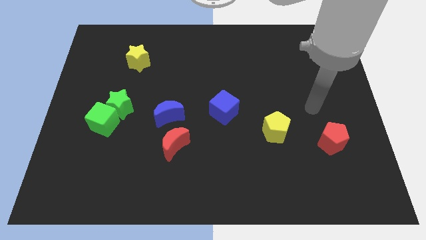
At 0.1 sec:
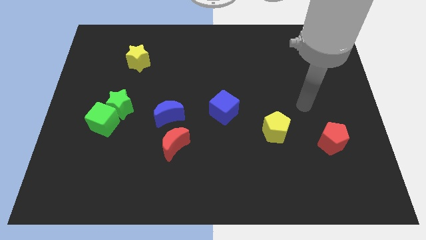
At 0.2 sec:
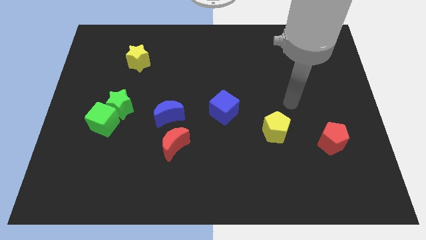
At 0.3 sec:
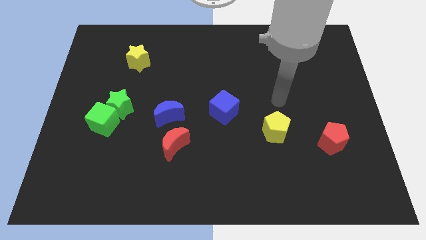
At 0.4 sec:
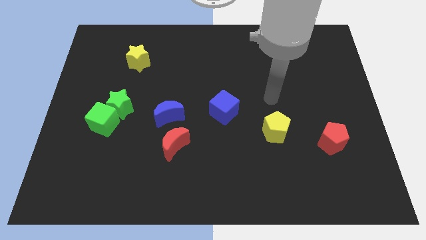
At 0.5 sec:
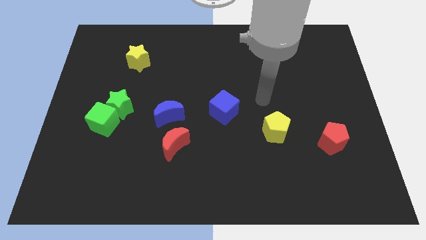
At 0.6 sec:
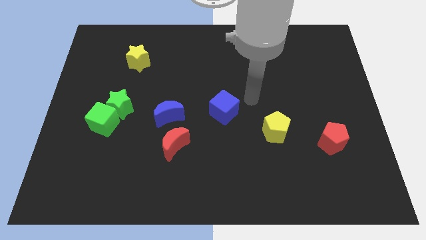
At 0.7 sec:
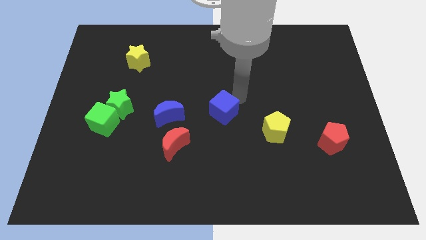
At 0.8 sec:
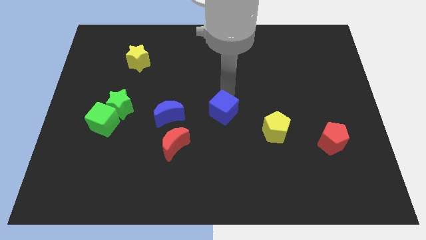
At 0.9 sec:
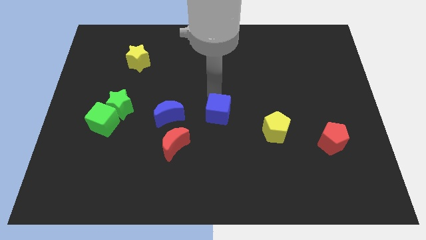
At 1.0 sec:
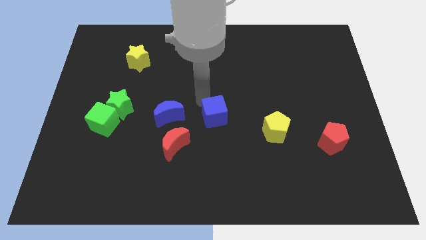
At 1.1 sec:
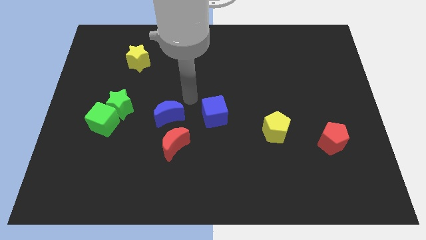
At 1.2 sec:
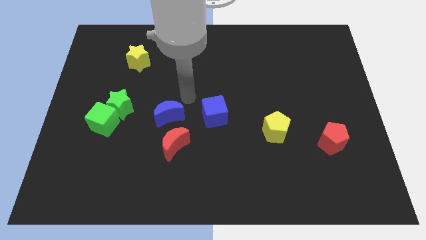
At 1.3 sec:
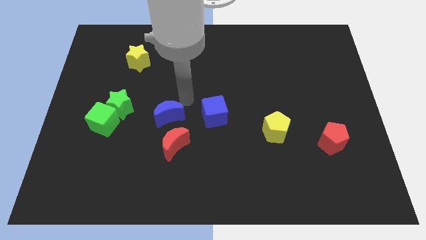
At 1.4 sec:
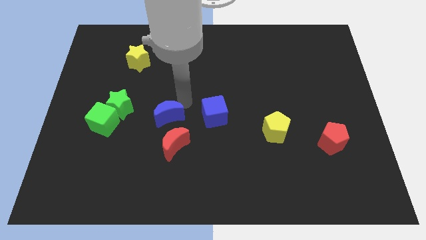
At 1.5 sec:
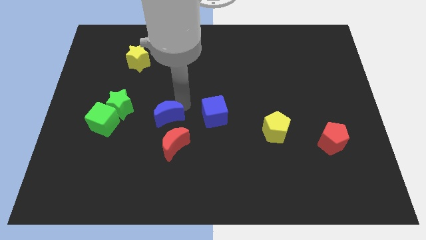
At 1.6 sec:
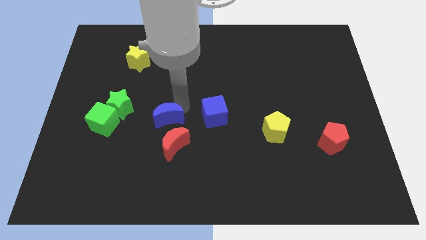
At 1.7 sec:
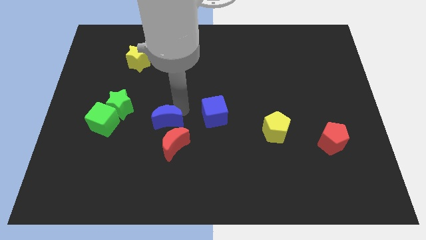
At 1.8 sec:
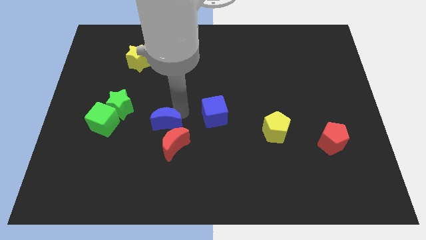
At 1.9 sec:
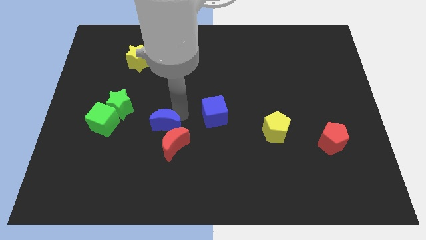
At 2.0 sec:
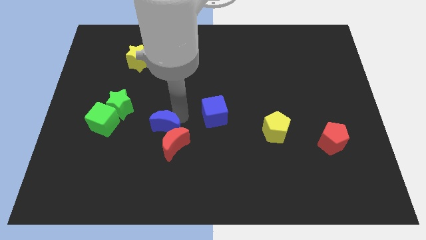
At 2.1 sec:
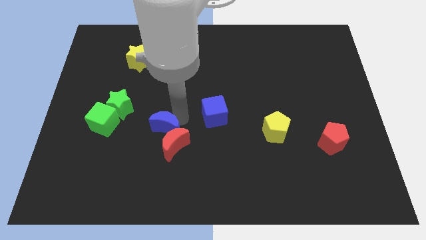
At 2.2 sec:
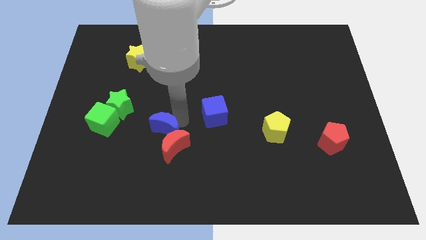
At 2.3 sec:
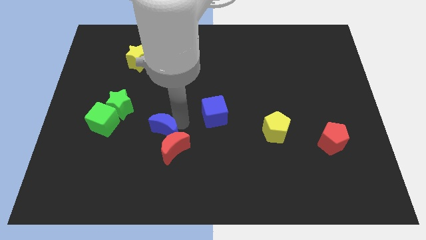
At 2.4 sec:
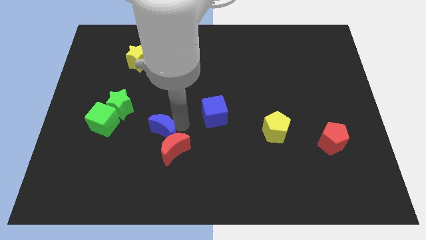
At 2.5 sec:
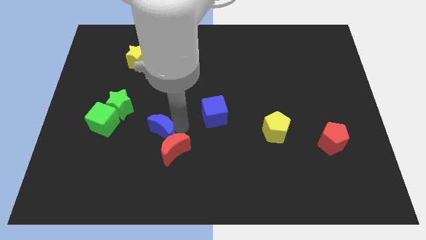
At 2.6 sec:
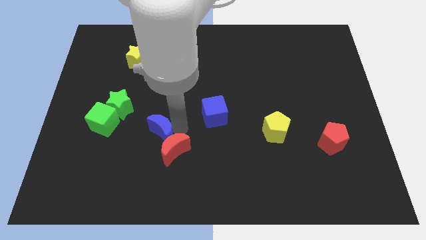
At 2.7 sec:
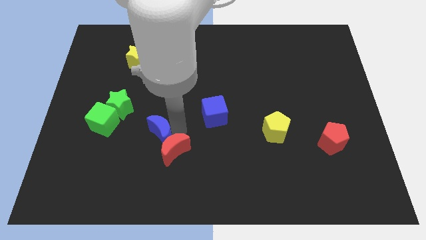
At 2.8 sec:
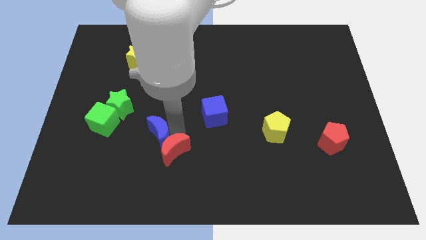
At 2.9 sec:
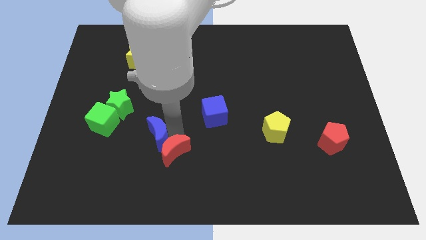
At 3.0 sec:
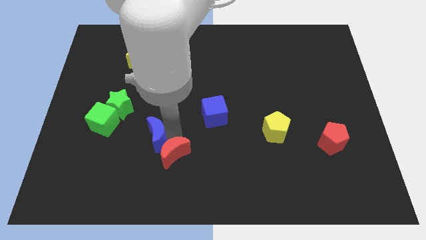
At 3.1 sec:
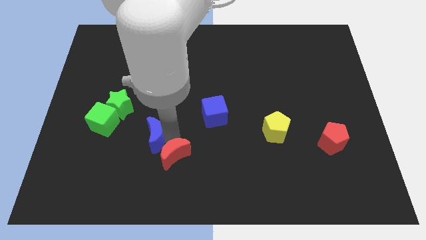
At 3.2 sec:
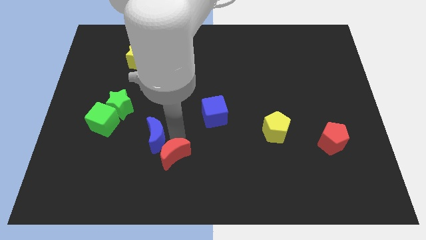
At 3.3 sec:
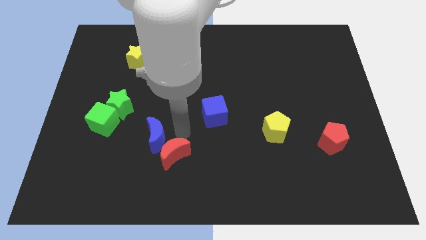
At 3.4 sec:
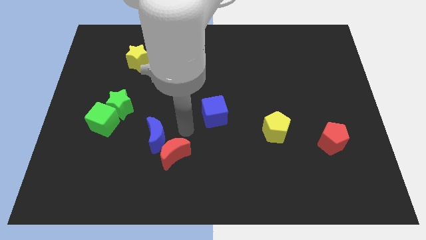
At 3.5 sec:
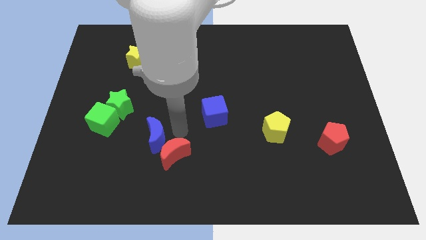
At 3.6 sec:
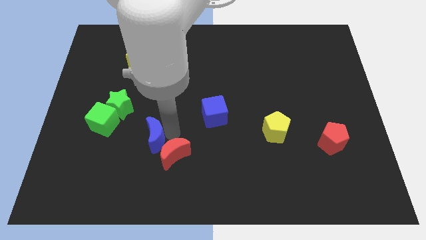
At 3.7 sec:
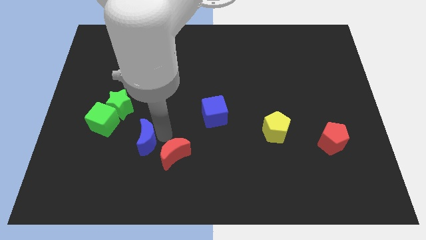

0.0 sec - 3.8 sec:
push the blue moon diagonally down and to the left a little

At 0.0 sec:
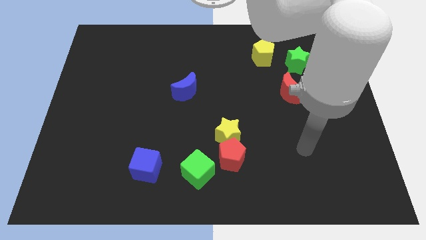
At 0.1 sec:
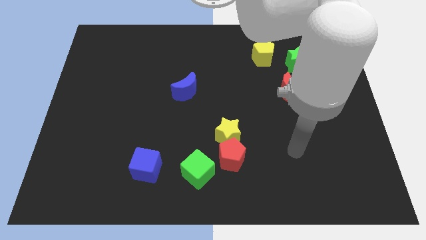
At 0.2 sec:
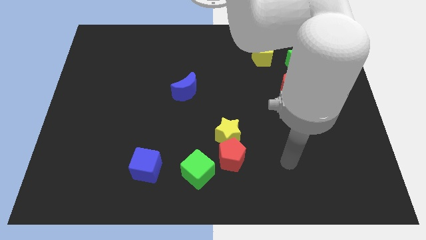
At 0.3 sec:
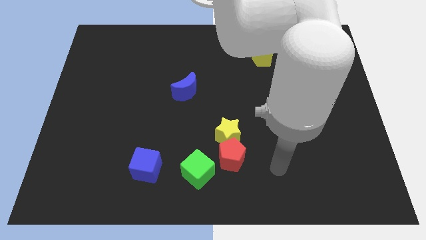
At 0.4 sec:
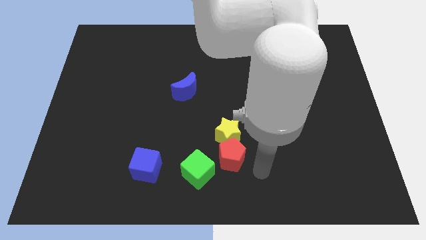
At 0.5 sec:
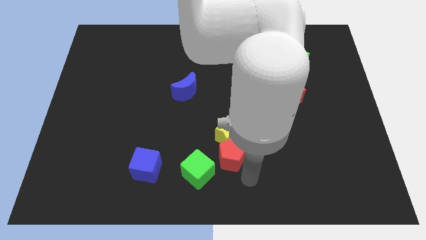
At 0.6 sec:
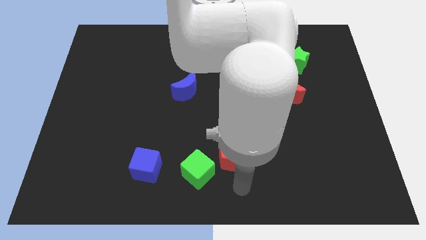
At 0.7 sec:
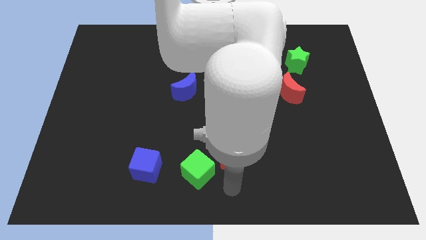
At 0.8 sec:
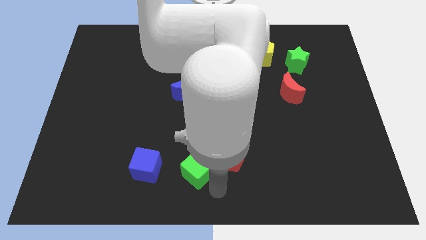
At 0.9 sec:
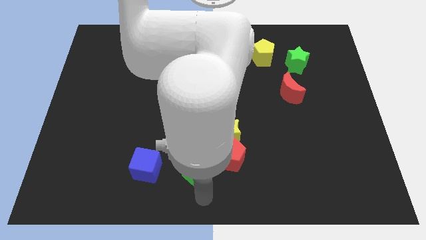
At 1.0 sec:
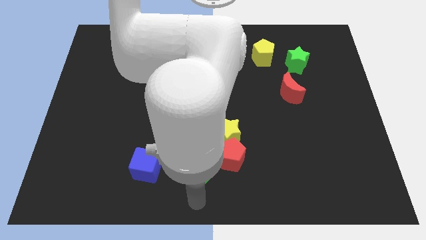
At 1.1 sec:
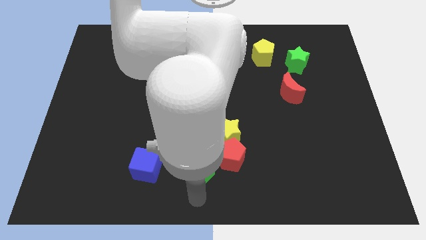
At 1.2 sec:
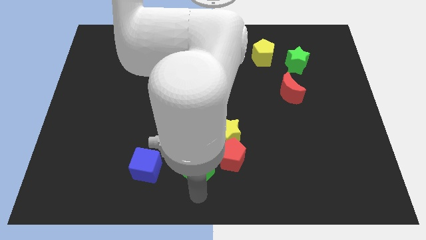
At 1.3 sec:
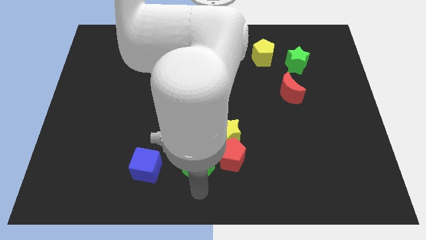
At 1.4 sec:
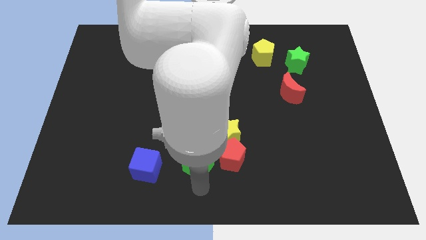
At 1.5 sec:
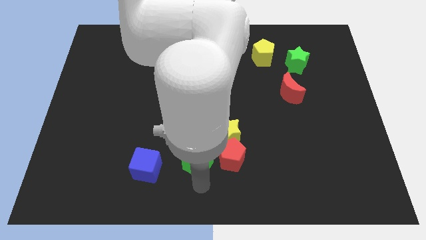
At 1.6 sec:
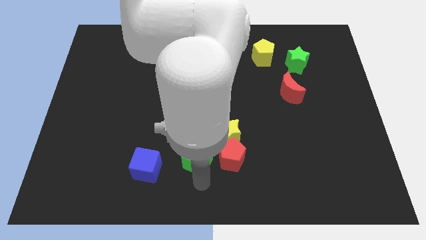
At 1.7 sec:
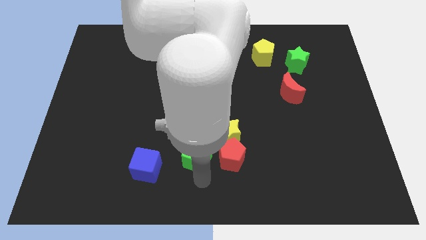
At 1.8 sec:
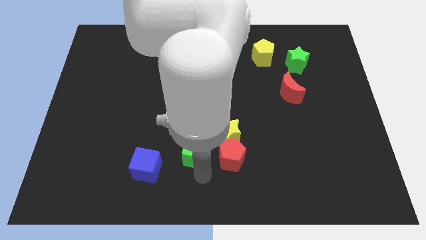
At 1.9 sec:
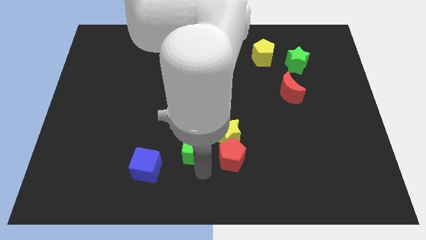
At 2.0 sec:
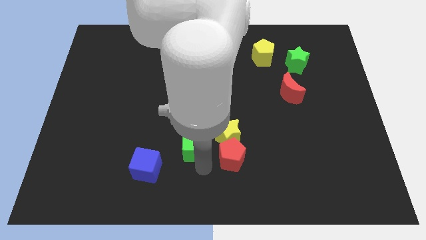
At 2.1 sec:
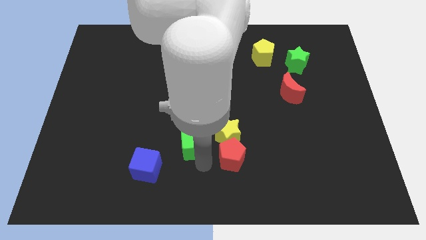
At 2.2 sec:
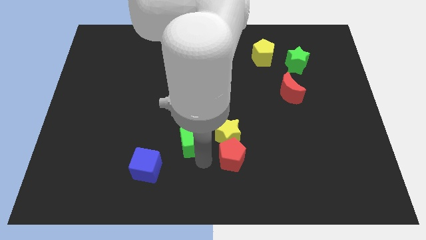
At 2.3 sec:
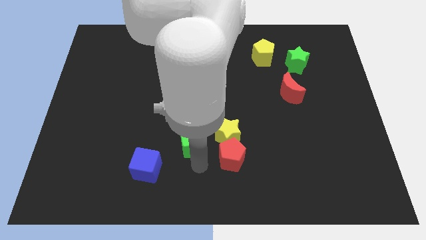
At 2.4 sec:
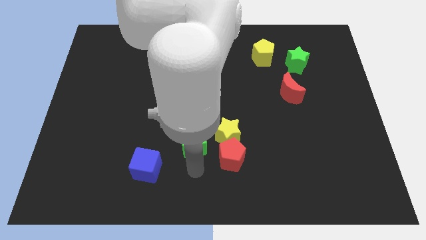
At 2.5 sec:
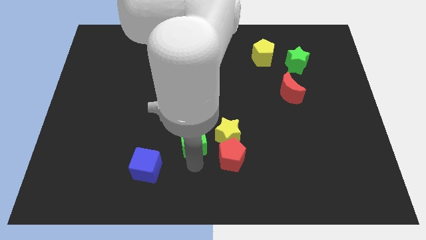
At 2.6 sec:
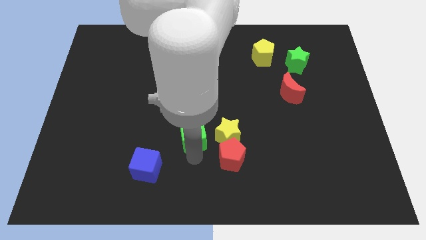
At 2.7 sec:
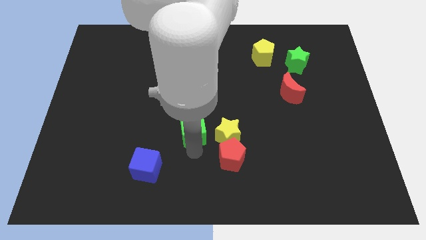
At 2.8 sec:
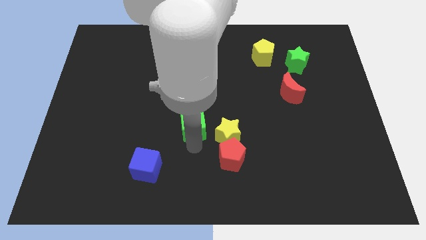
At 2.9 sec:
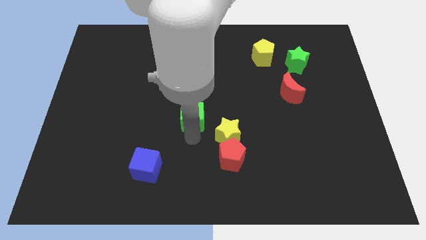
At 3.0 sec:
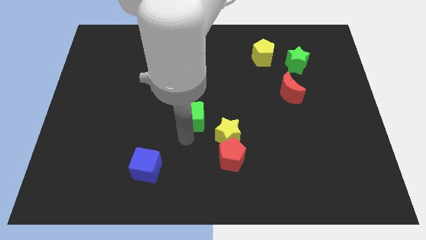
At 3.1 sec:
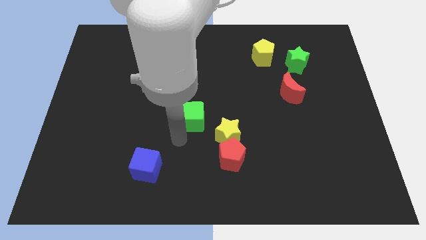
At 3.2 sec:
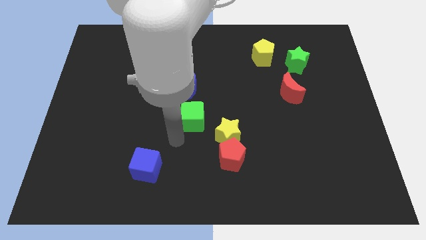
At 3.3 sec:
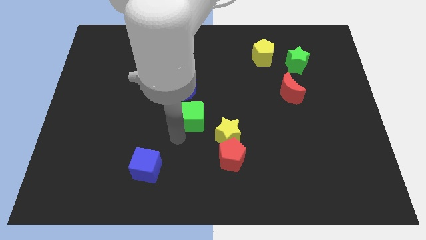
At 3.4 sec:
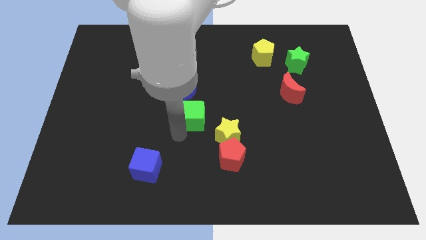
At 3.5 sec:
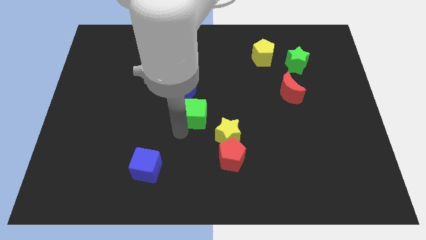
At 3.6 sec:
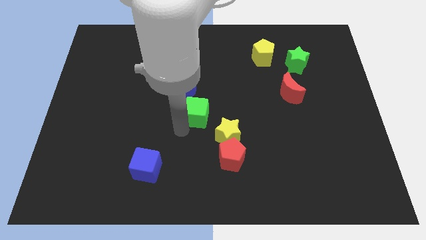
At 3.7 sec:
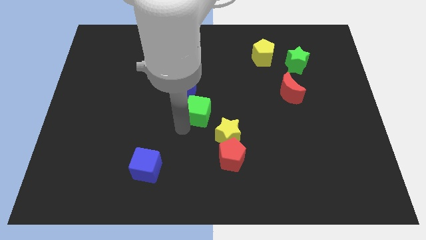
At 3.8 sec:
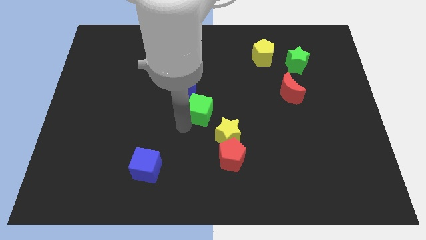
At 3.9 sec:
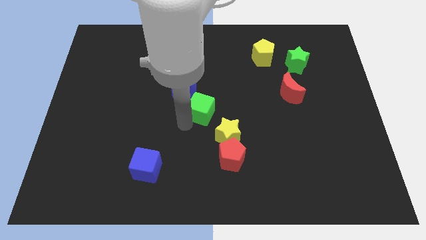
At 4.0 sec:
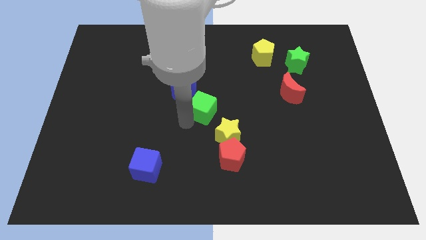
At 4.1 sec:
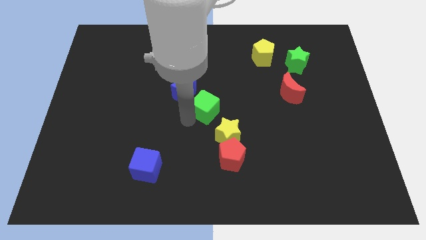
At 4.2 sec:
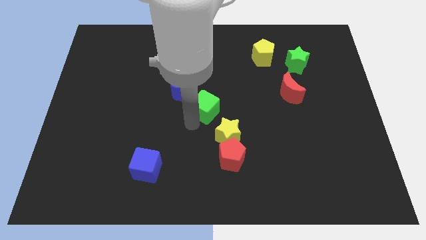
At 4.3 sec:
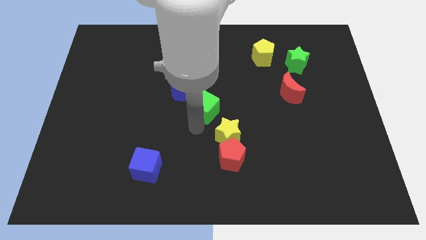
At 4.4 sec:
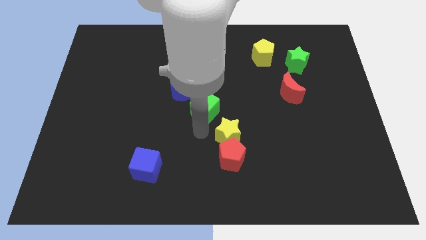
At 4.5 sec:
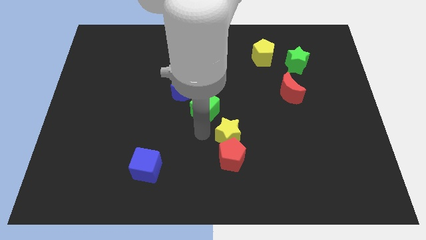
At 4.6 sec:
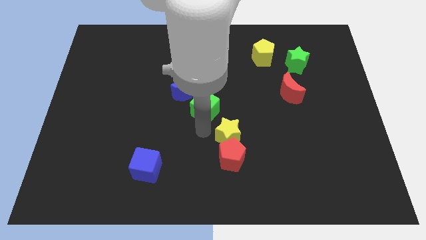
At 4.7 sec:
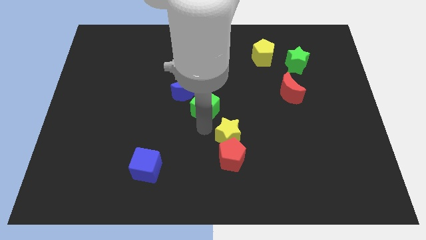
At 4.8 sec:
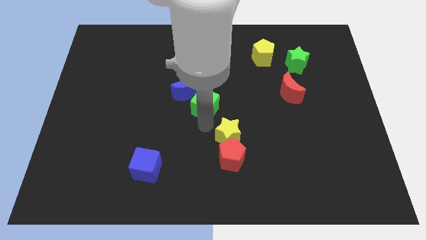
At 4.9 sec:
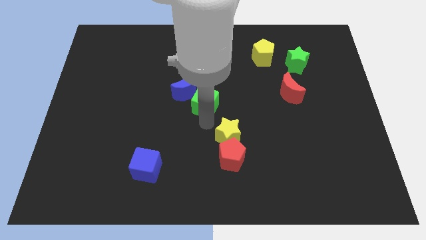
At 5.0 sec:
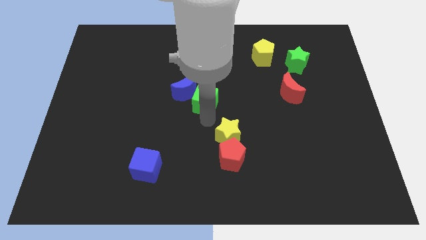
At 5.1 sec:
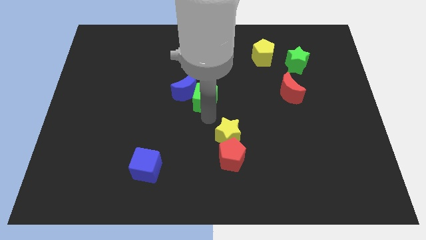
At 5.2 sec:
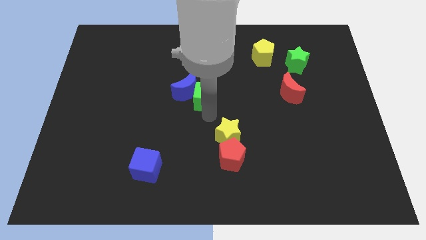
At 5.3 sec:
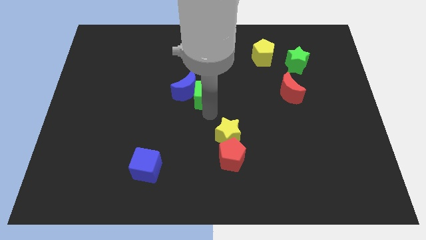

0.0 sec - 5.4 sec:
push the green cube up
